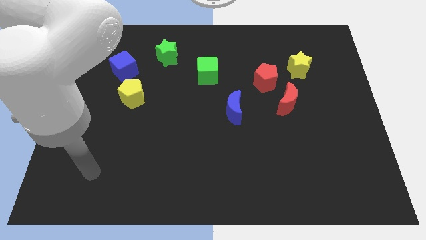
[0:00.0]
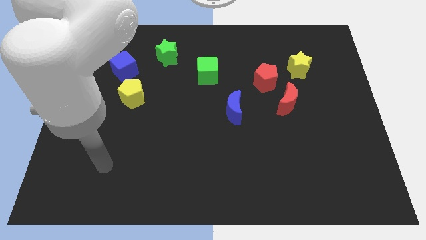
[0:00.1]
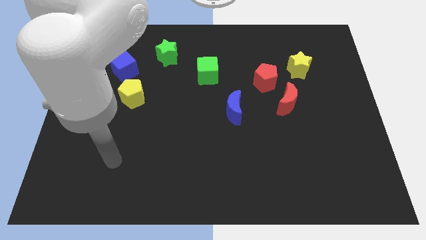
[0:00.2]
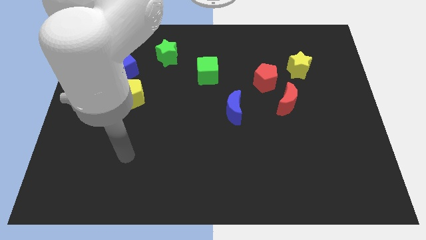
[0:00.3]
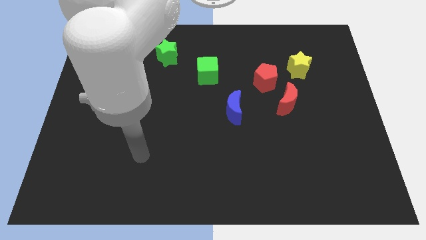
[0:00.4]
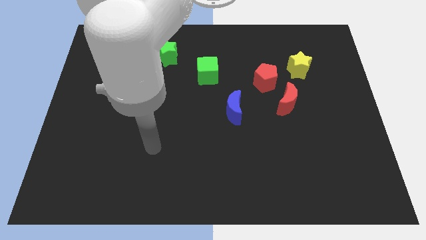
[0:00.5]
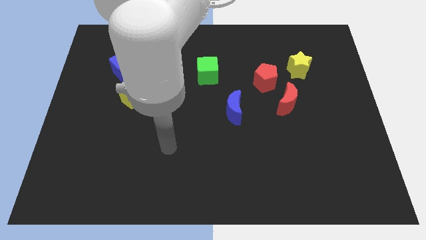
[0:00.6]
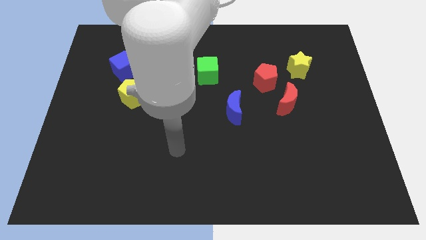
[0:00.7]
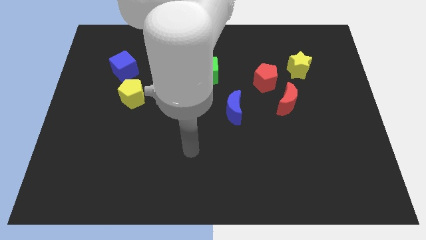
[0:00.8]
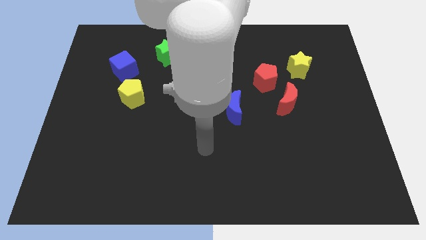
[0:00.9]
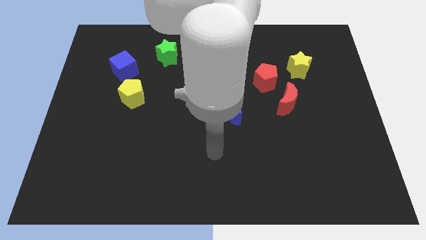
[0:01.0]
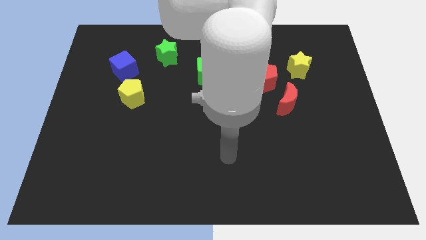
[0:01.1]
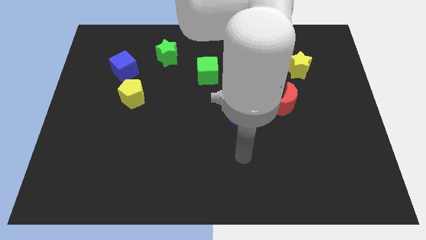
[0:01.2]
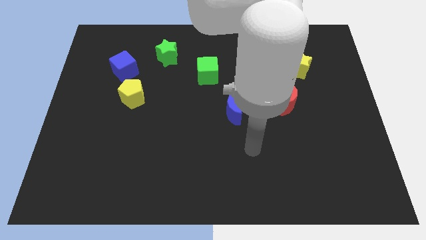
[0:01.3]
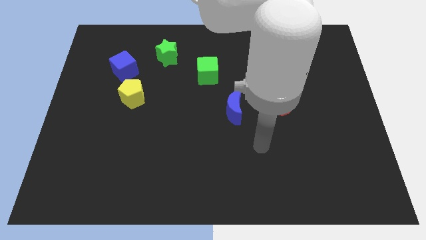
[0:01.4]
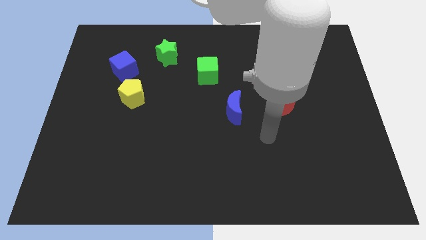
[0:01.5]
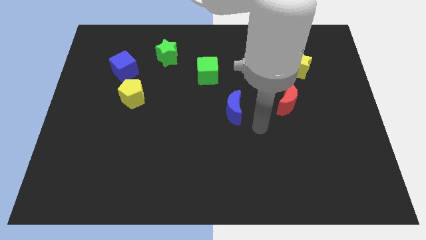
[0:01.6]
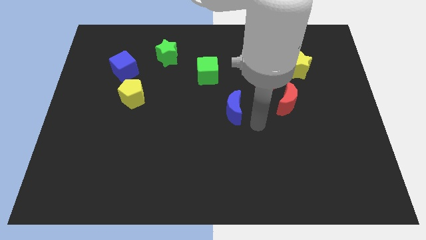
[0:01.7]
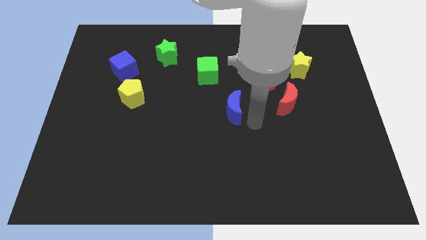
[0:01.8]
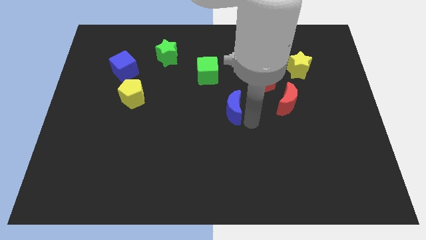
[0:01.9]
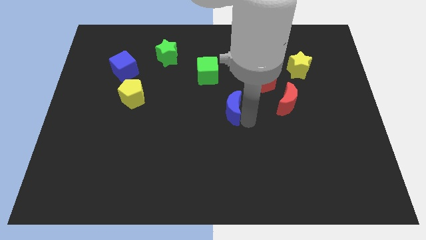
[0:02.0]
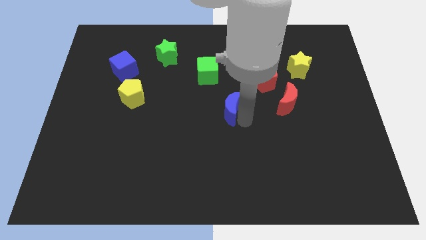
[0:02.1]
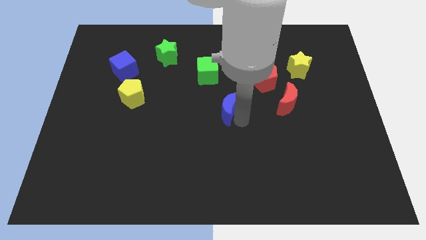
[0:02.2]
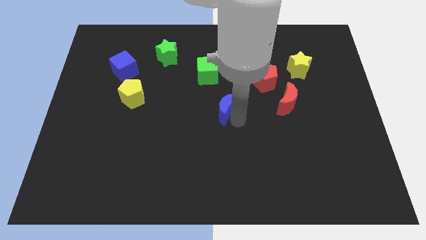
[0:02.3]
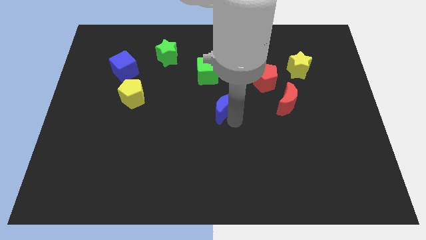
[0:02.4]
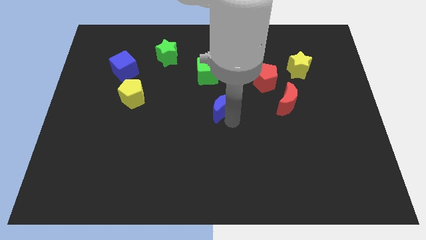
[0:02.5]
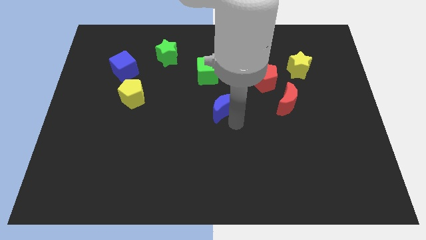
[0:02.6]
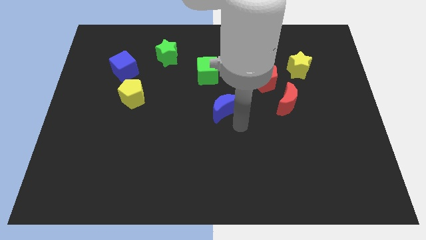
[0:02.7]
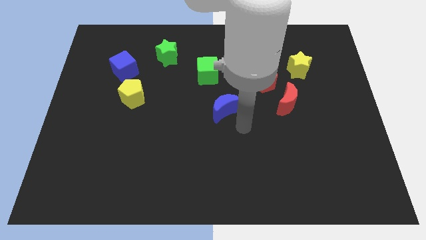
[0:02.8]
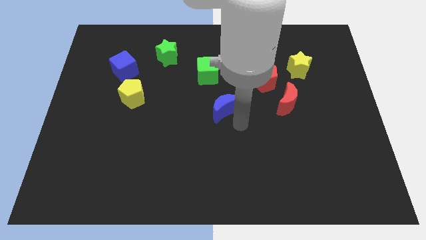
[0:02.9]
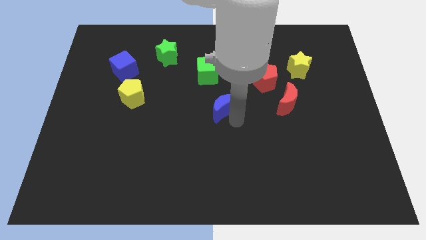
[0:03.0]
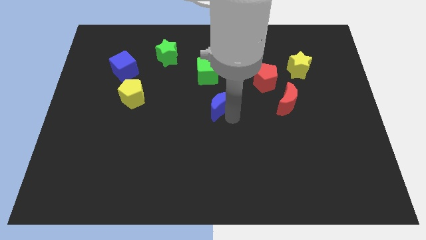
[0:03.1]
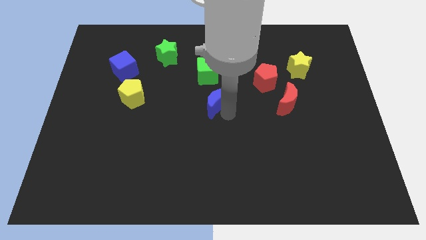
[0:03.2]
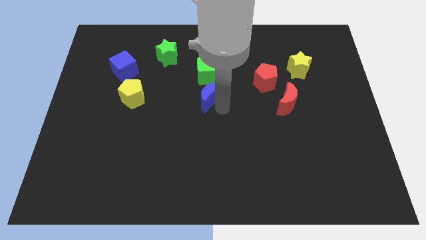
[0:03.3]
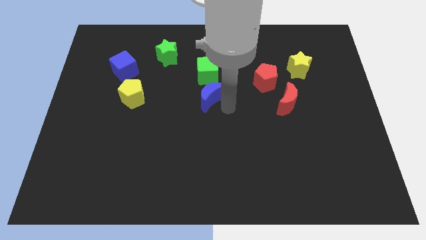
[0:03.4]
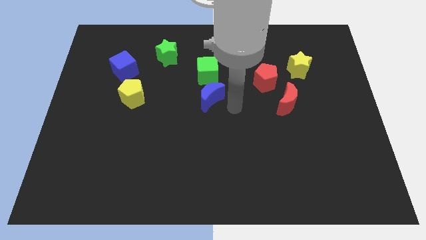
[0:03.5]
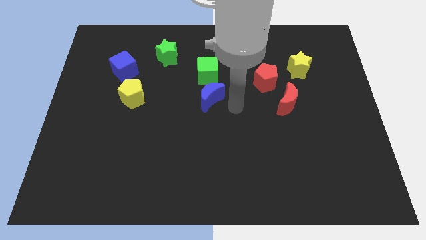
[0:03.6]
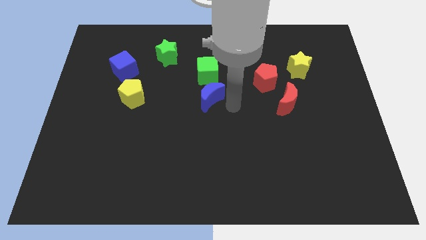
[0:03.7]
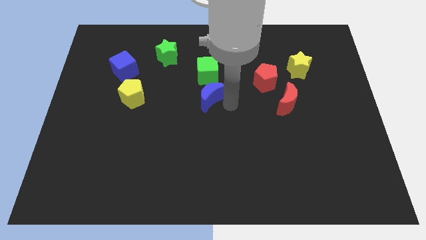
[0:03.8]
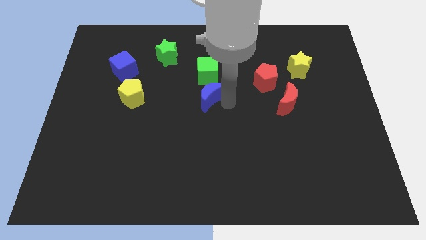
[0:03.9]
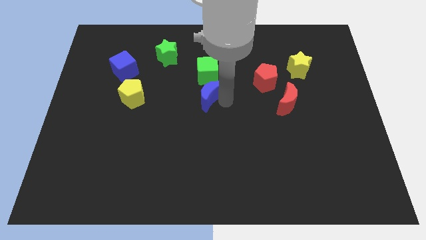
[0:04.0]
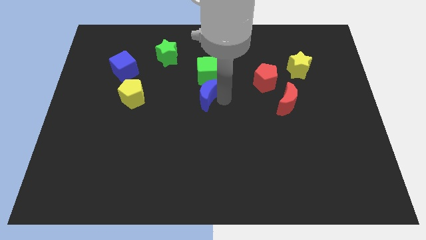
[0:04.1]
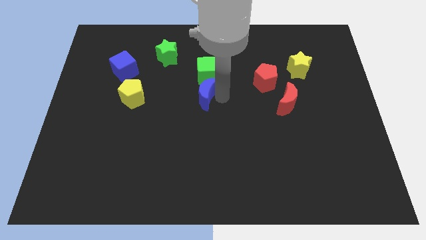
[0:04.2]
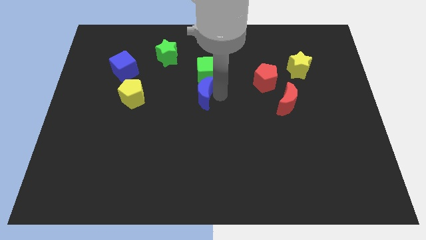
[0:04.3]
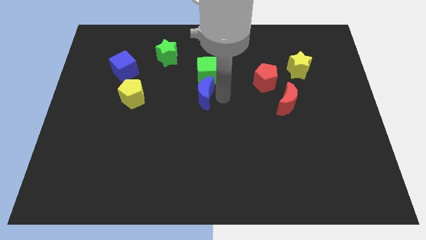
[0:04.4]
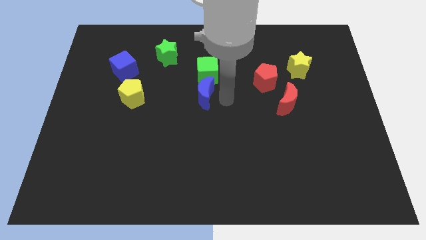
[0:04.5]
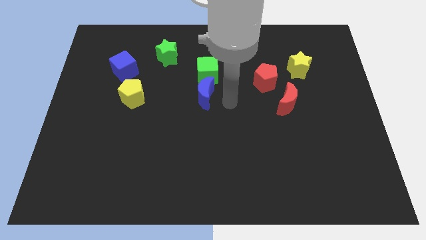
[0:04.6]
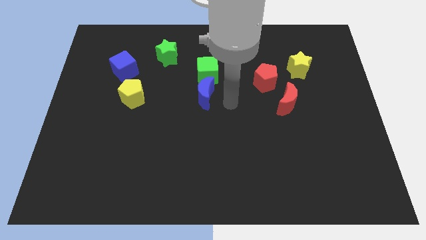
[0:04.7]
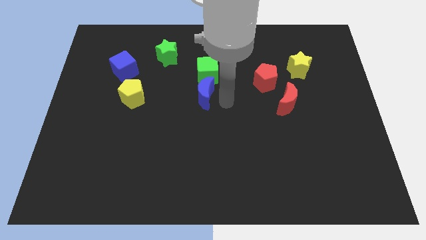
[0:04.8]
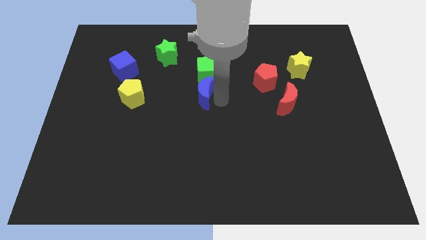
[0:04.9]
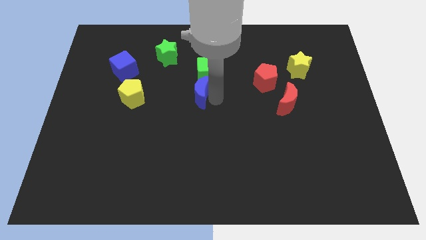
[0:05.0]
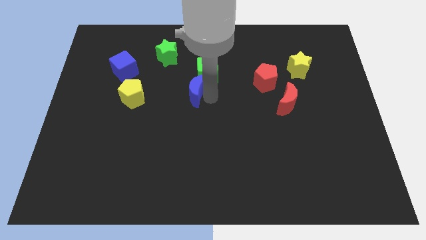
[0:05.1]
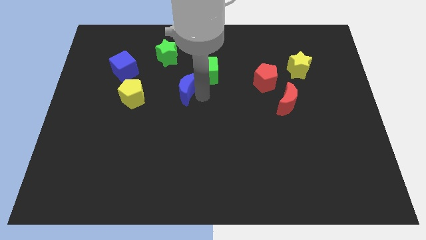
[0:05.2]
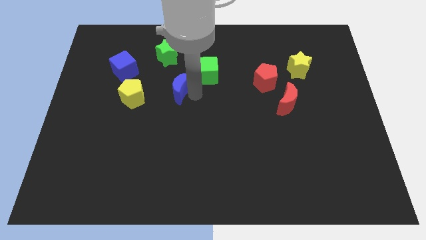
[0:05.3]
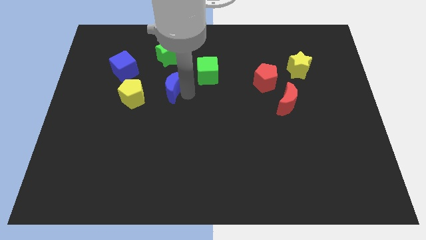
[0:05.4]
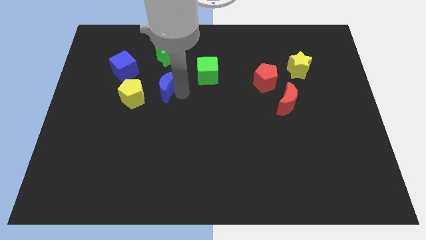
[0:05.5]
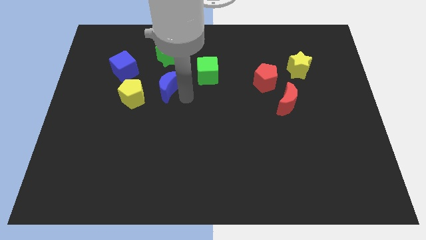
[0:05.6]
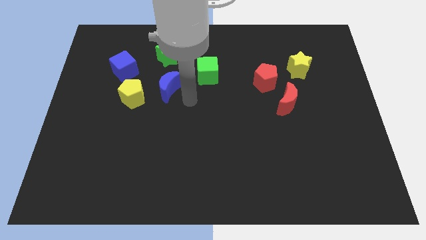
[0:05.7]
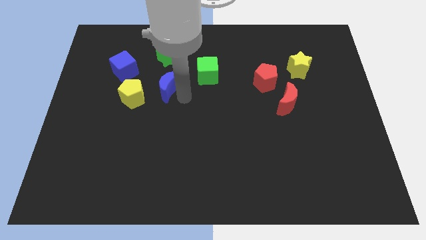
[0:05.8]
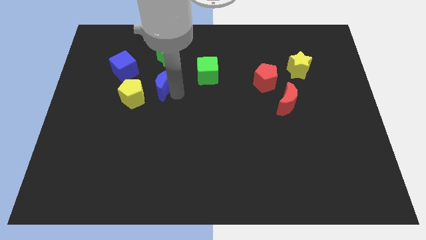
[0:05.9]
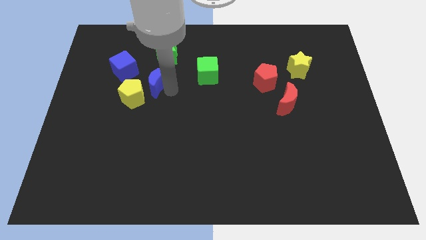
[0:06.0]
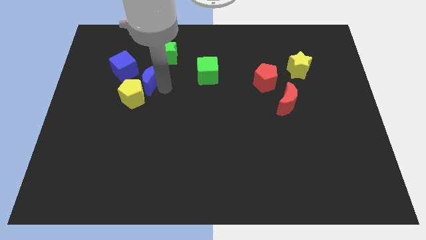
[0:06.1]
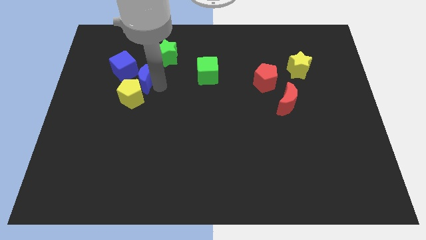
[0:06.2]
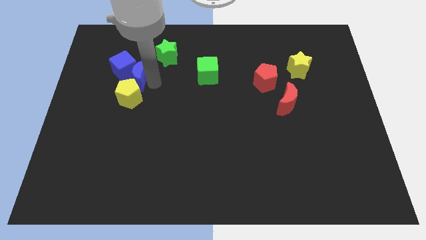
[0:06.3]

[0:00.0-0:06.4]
move the blue moon towards the blue cube

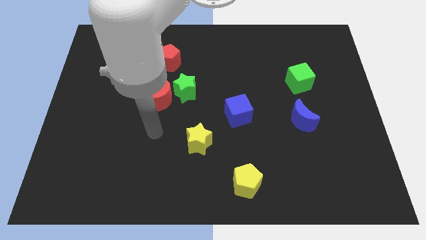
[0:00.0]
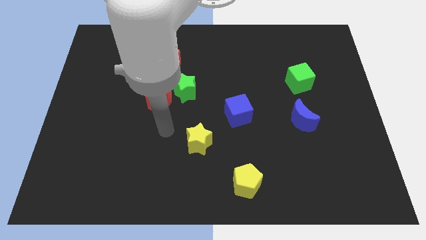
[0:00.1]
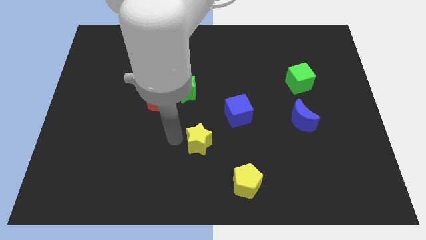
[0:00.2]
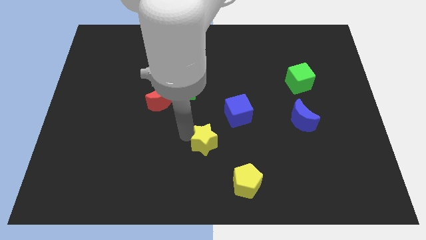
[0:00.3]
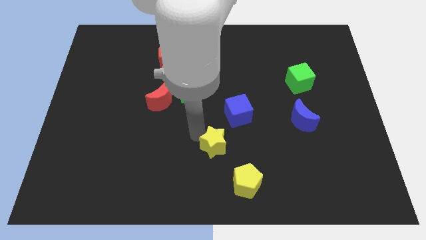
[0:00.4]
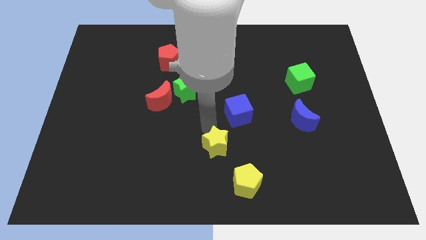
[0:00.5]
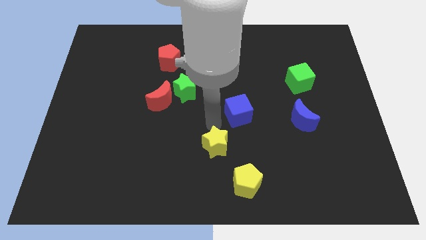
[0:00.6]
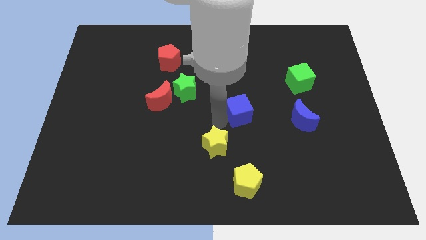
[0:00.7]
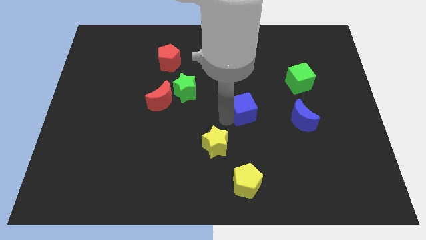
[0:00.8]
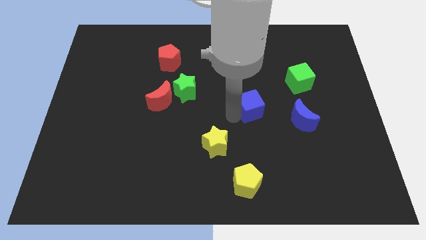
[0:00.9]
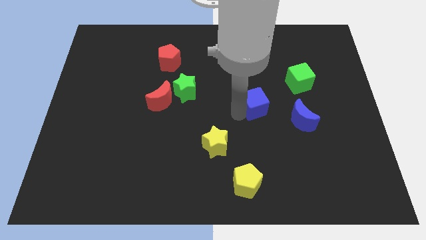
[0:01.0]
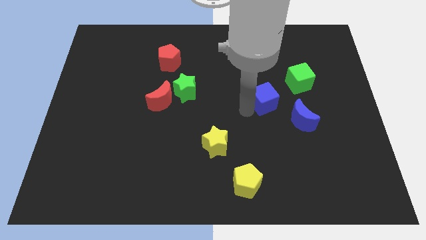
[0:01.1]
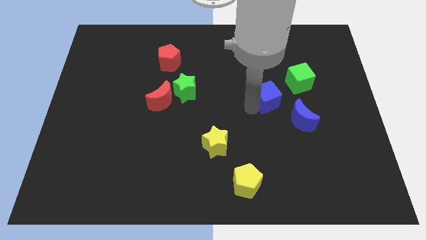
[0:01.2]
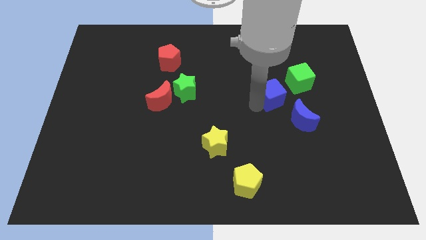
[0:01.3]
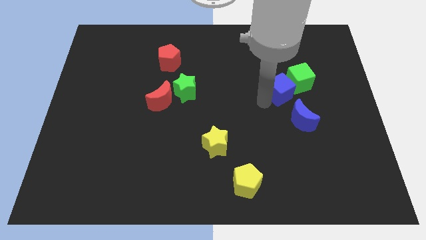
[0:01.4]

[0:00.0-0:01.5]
push the blue cube towards the green cube
